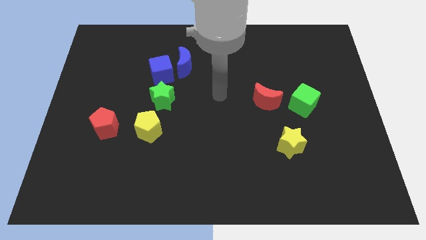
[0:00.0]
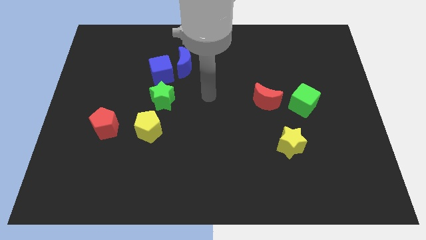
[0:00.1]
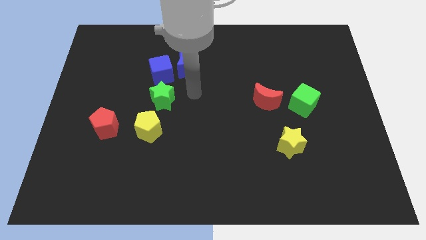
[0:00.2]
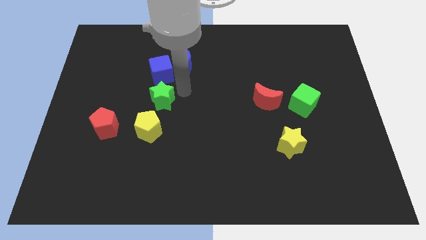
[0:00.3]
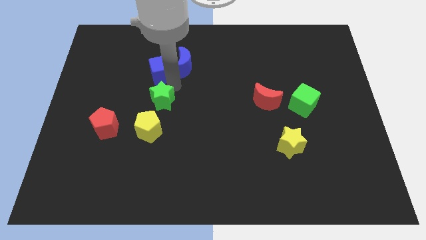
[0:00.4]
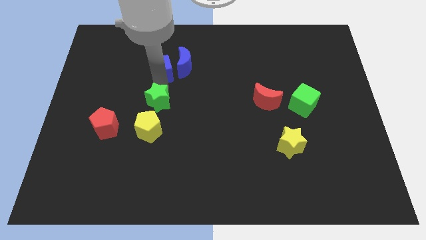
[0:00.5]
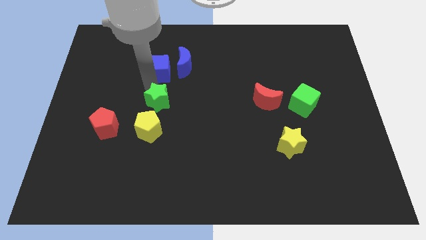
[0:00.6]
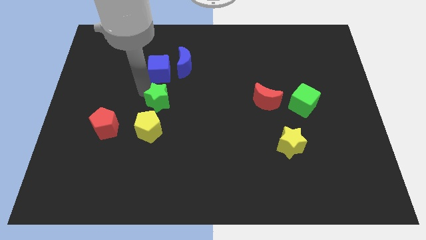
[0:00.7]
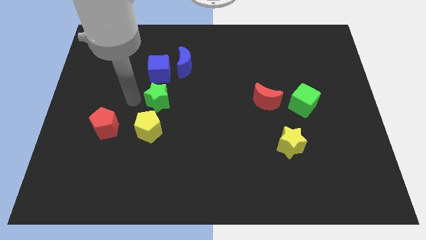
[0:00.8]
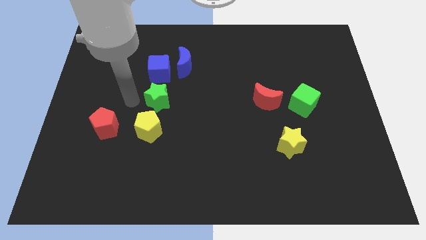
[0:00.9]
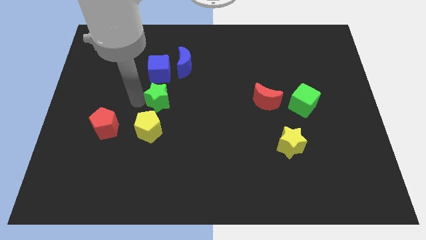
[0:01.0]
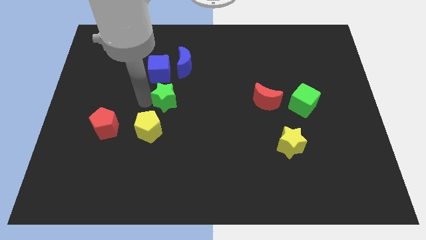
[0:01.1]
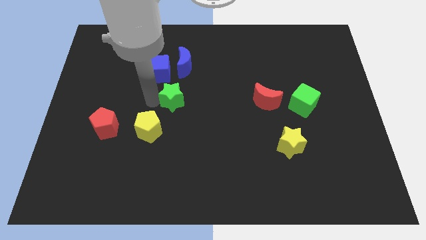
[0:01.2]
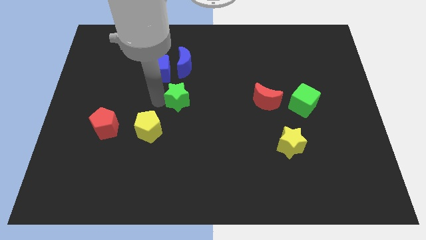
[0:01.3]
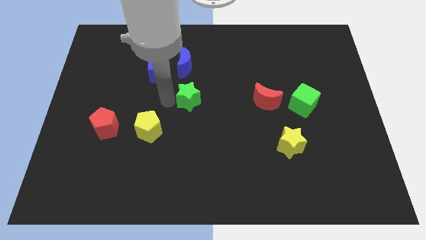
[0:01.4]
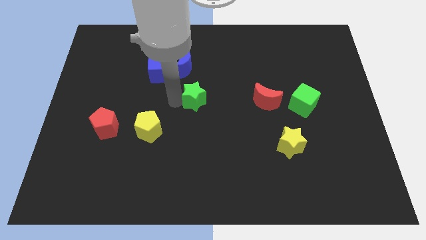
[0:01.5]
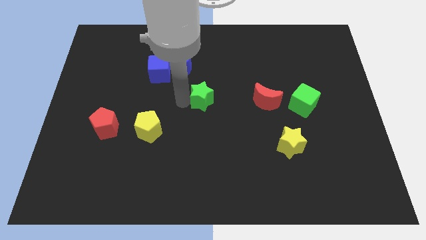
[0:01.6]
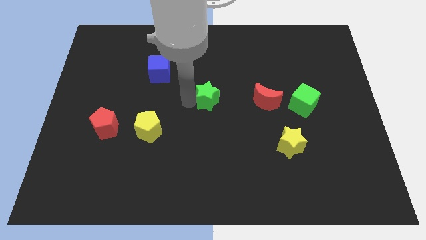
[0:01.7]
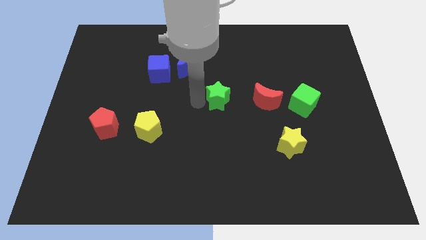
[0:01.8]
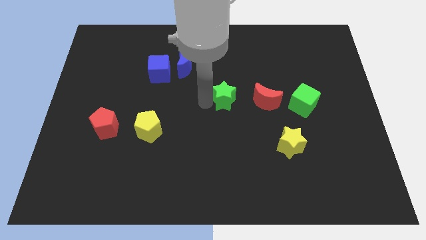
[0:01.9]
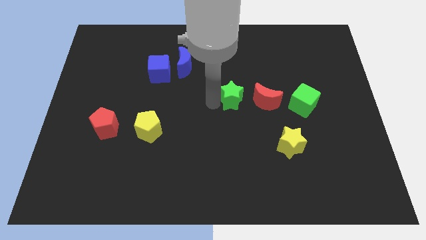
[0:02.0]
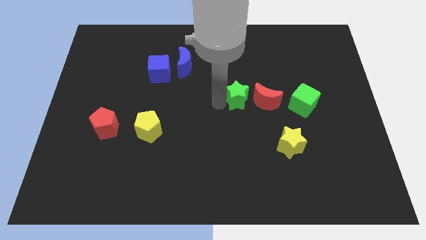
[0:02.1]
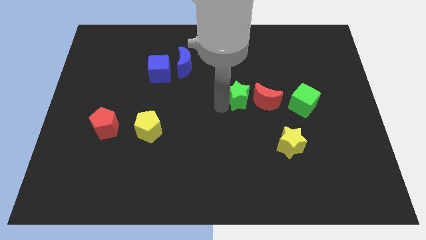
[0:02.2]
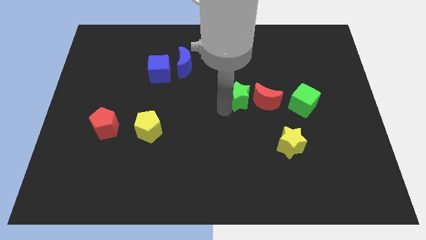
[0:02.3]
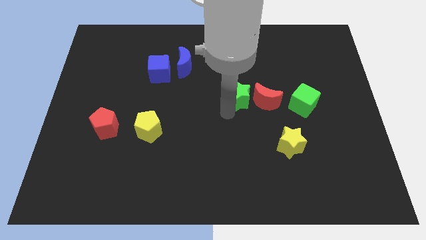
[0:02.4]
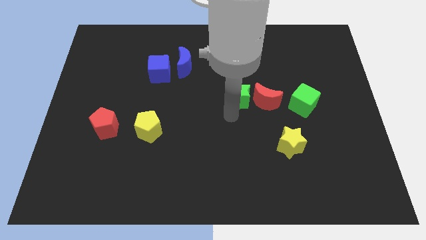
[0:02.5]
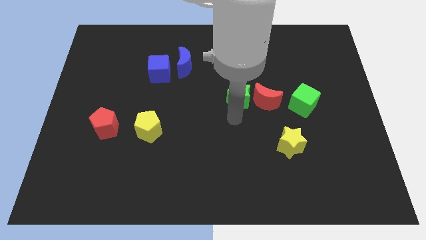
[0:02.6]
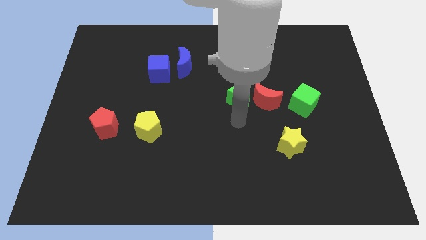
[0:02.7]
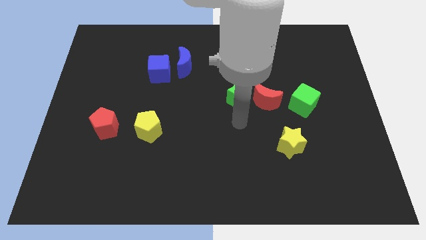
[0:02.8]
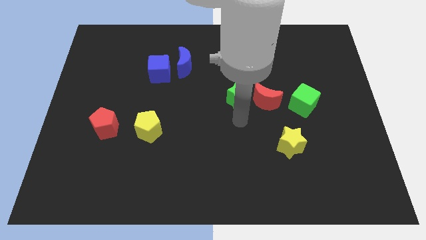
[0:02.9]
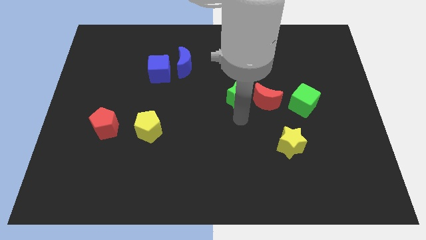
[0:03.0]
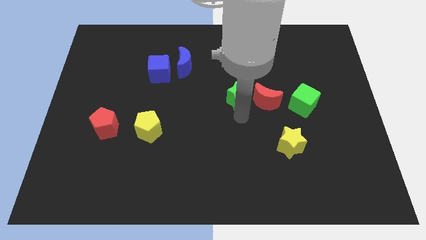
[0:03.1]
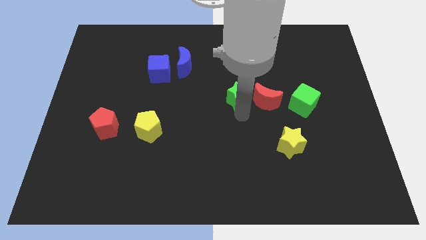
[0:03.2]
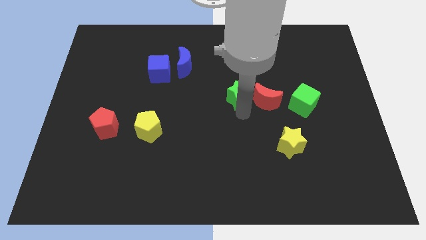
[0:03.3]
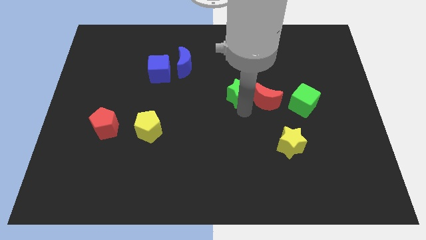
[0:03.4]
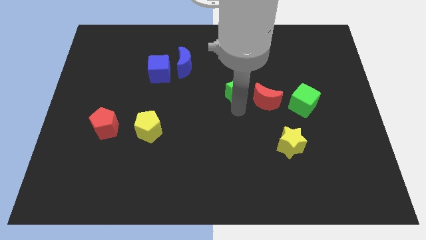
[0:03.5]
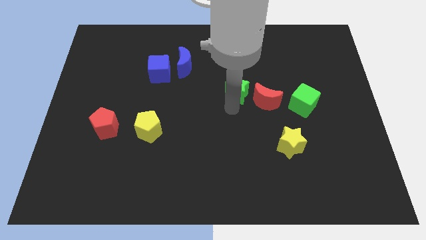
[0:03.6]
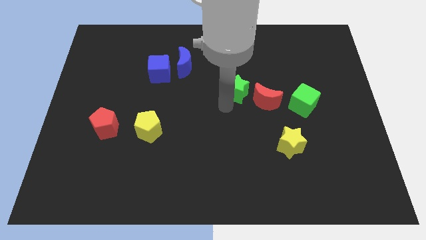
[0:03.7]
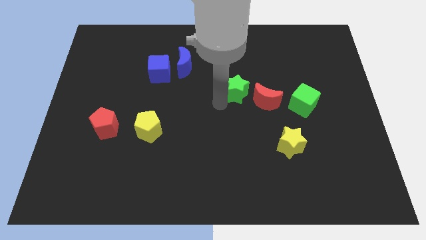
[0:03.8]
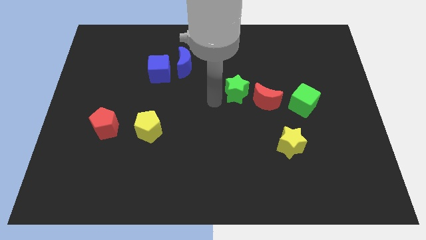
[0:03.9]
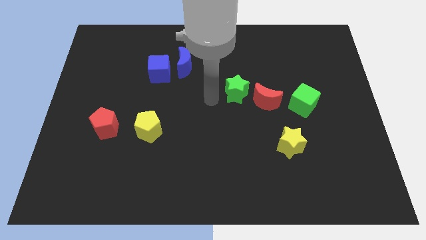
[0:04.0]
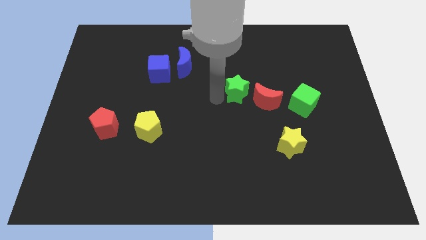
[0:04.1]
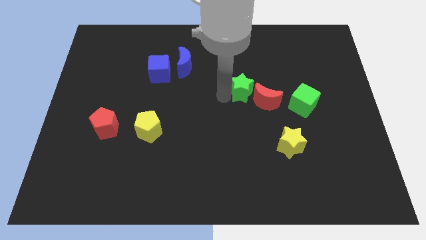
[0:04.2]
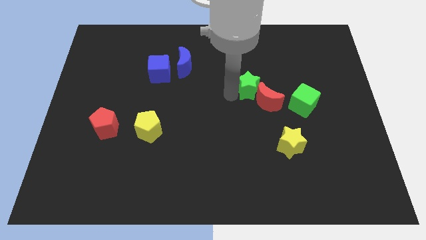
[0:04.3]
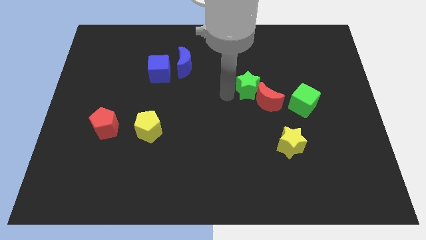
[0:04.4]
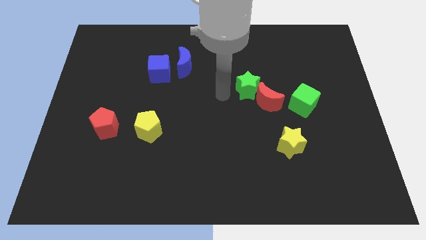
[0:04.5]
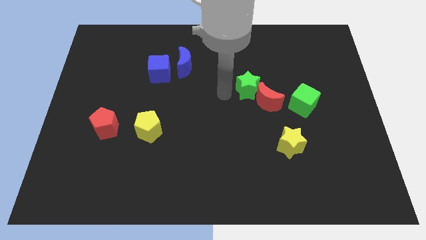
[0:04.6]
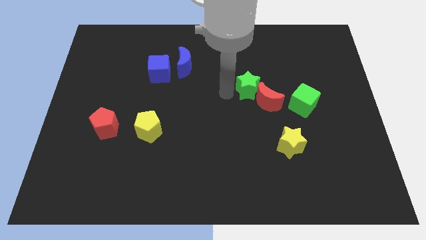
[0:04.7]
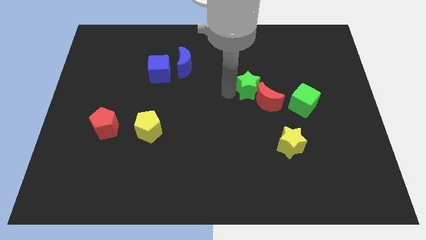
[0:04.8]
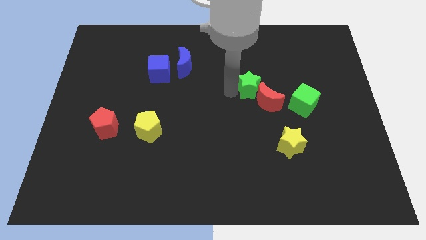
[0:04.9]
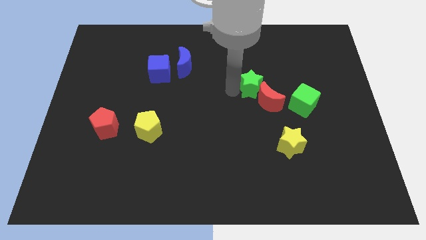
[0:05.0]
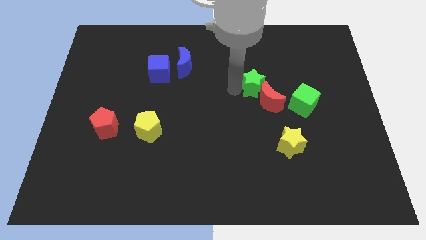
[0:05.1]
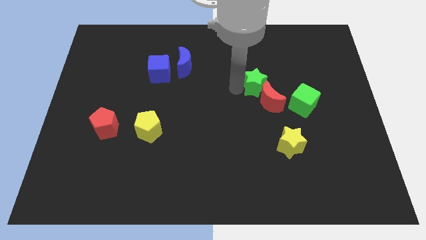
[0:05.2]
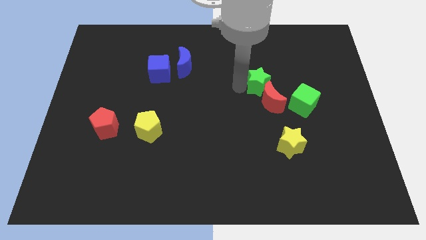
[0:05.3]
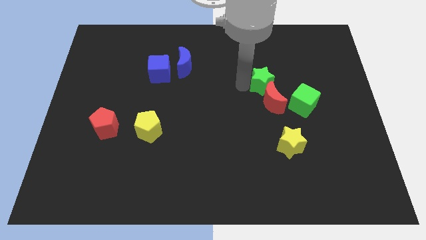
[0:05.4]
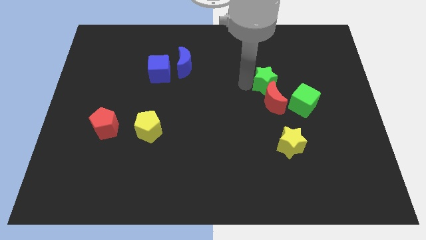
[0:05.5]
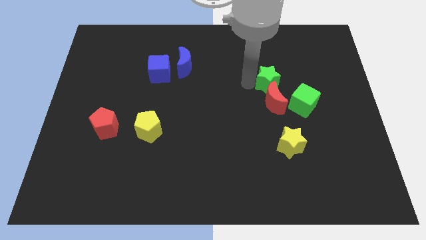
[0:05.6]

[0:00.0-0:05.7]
slide the green star to the top right of the red moon

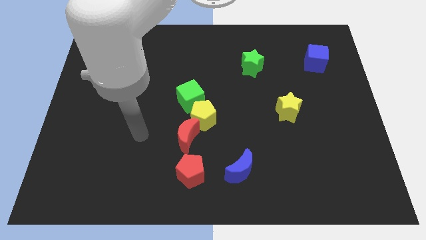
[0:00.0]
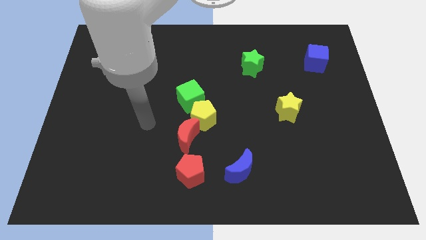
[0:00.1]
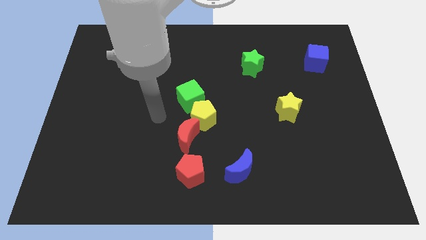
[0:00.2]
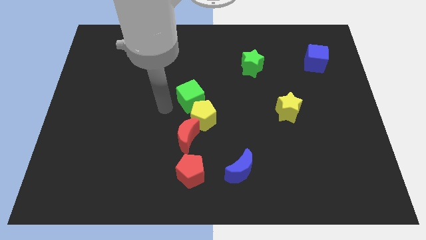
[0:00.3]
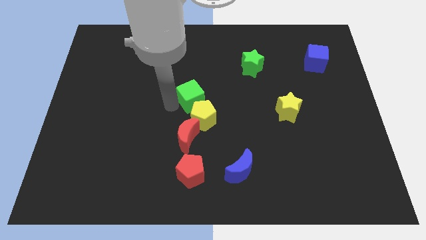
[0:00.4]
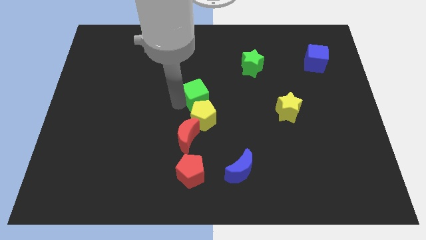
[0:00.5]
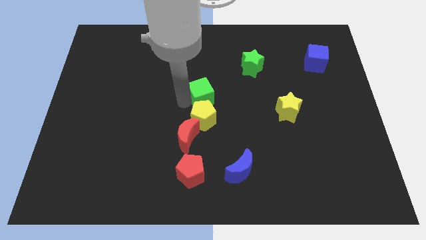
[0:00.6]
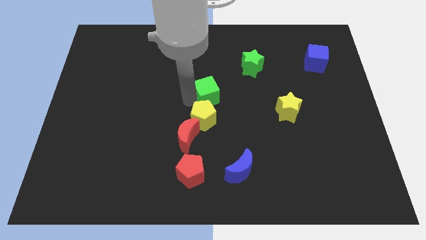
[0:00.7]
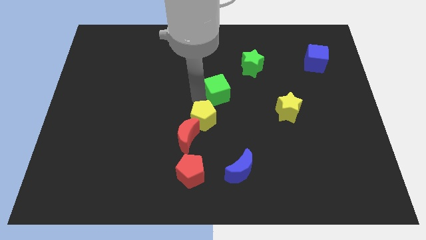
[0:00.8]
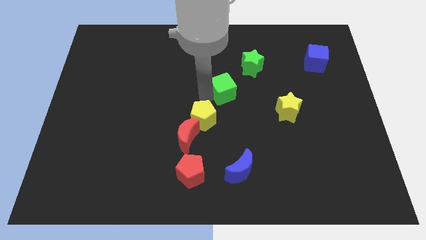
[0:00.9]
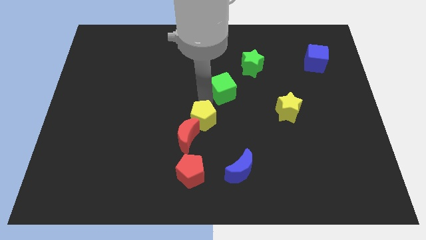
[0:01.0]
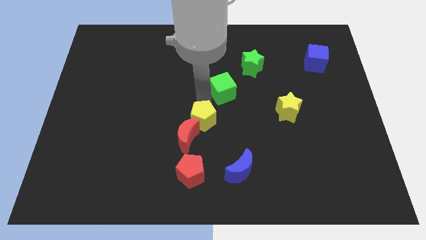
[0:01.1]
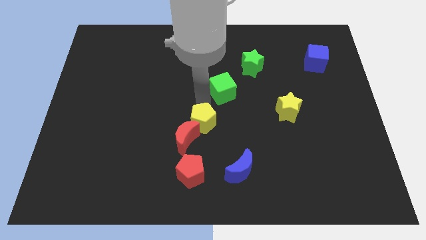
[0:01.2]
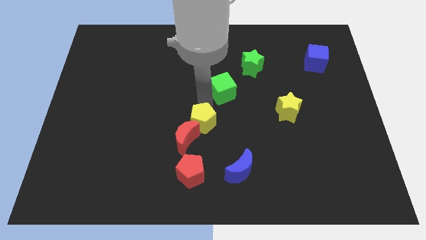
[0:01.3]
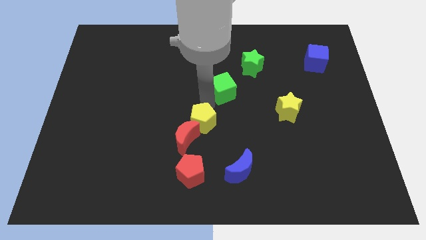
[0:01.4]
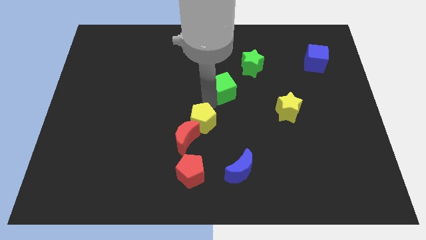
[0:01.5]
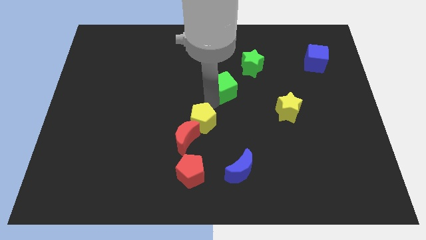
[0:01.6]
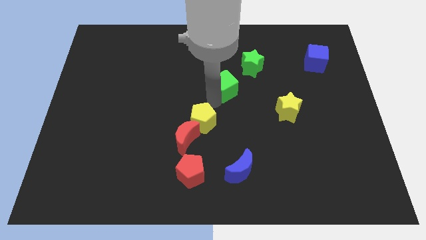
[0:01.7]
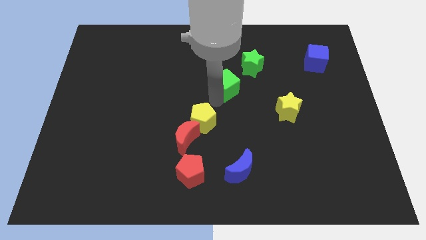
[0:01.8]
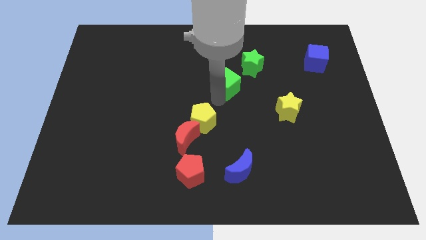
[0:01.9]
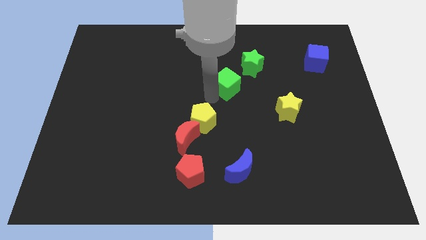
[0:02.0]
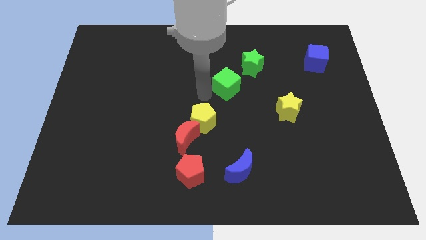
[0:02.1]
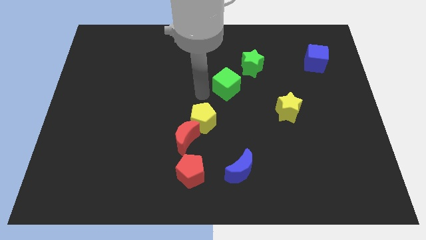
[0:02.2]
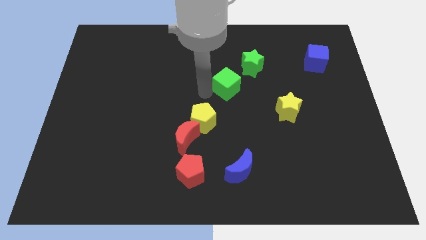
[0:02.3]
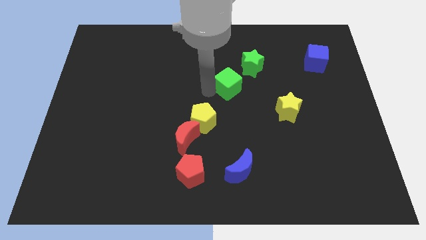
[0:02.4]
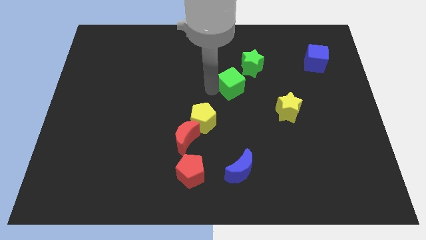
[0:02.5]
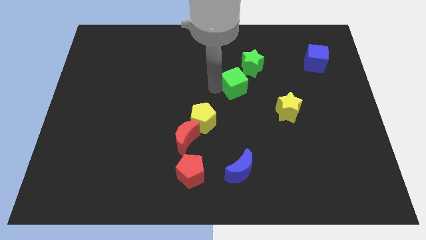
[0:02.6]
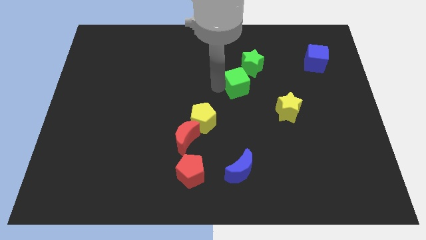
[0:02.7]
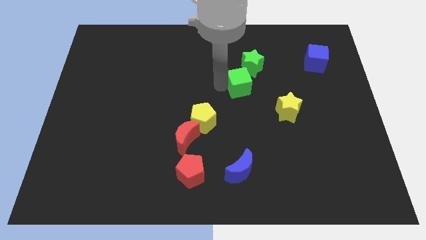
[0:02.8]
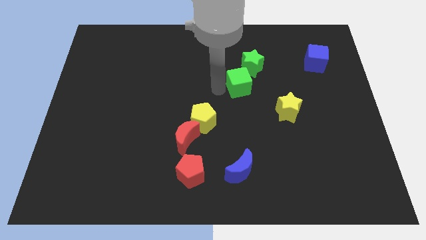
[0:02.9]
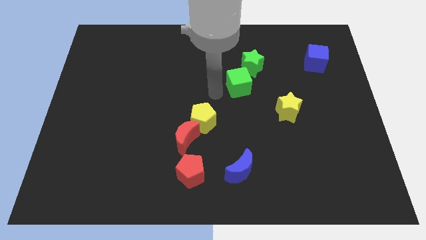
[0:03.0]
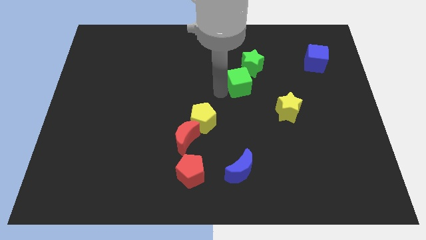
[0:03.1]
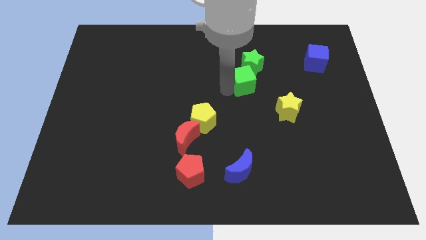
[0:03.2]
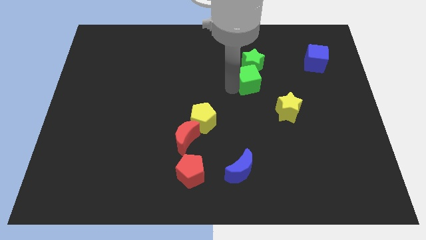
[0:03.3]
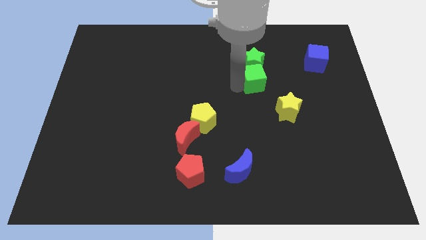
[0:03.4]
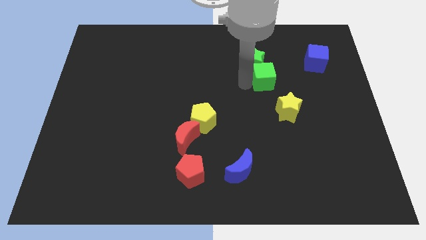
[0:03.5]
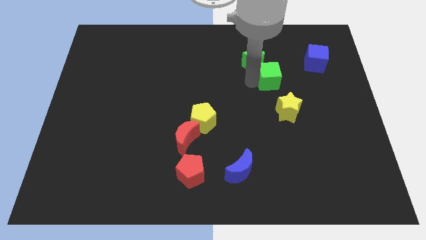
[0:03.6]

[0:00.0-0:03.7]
push the green cube above the yellow star
